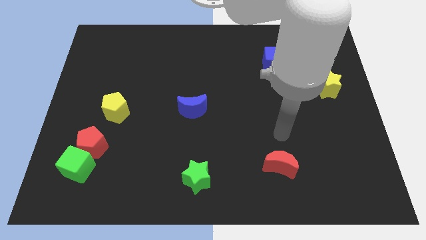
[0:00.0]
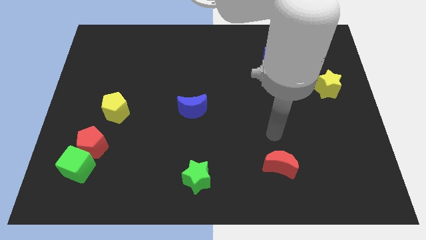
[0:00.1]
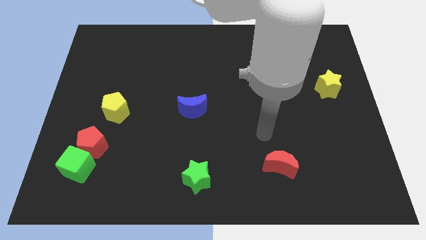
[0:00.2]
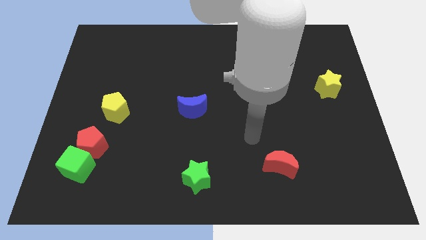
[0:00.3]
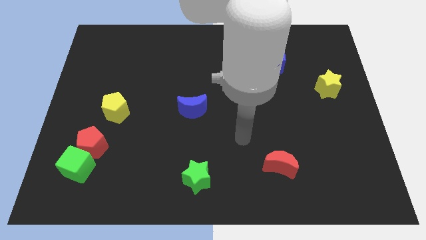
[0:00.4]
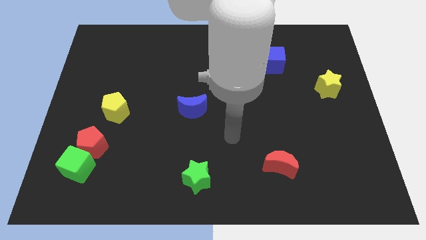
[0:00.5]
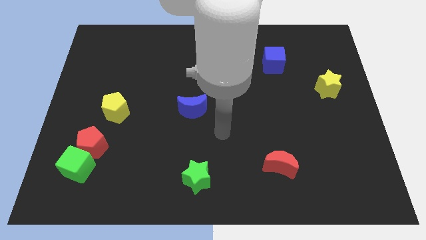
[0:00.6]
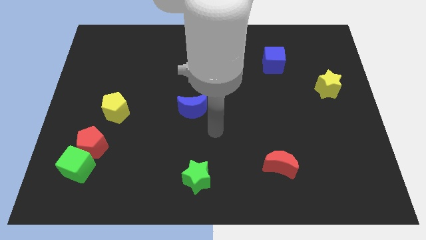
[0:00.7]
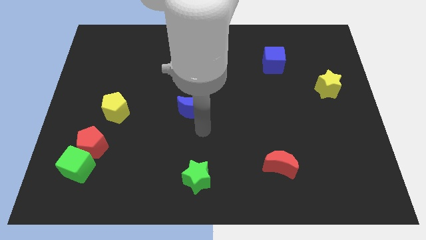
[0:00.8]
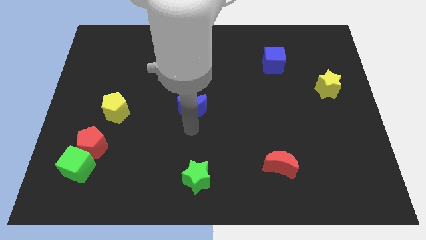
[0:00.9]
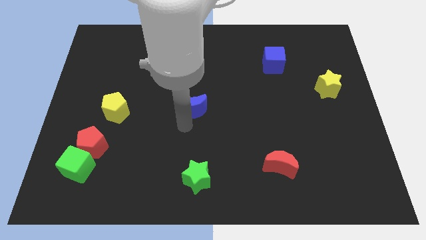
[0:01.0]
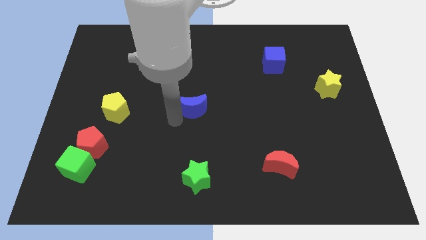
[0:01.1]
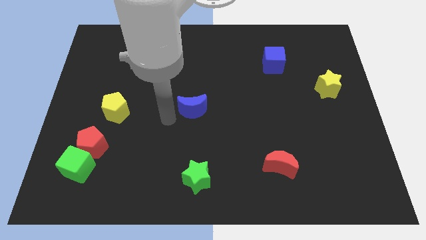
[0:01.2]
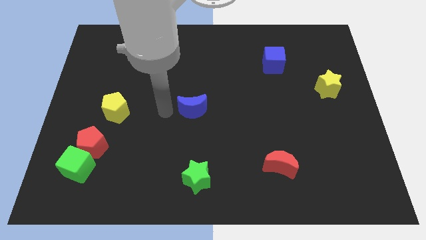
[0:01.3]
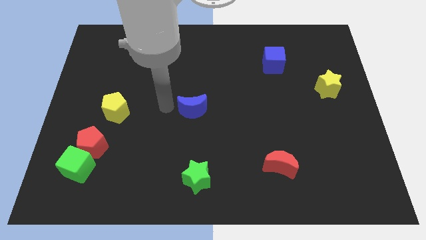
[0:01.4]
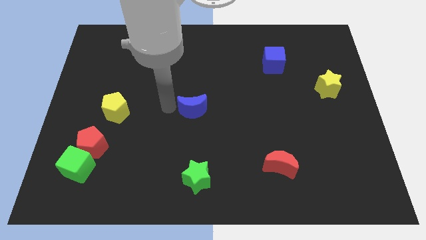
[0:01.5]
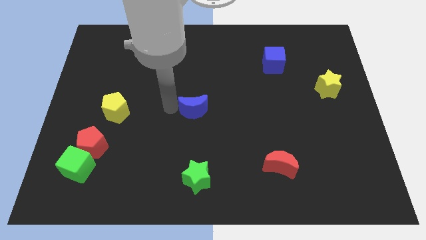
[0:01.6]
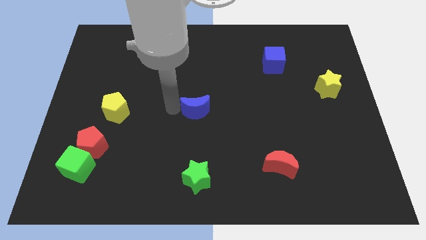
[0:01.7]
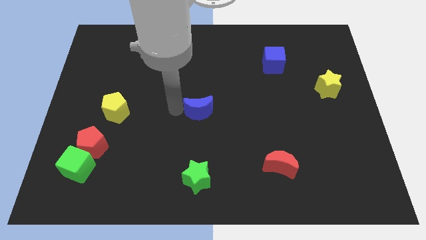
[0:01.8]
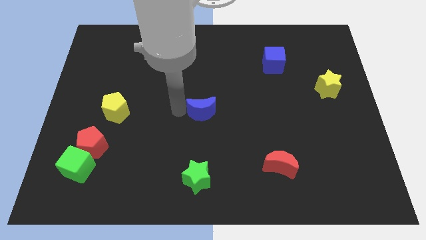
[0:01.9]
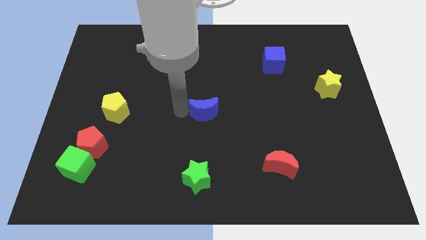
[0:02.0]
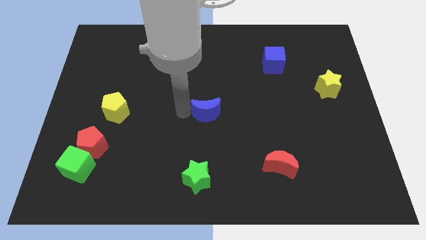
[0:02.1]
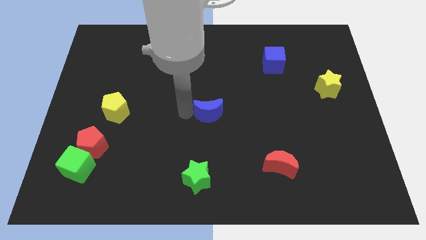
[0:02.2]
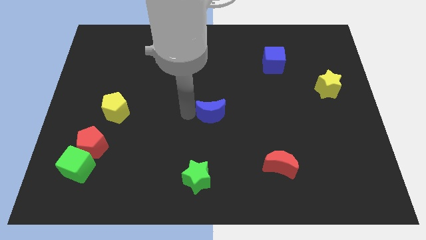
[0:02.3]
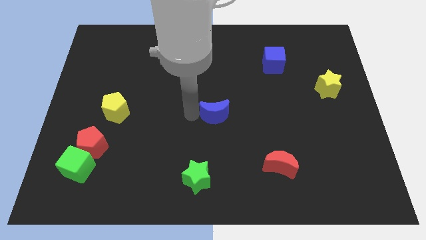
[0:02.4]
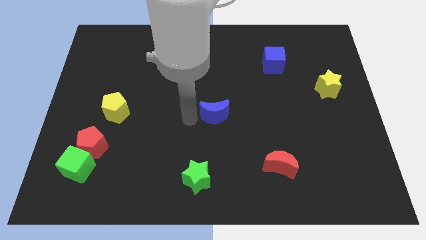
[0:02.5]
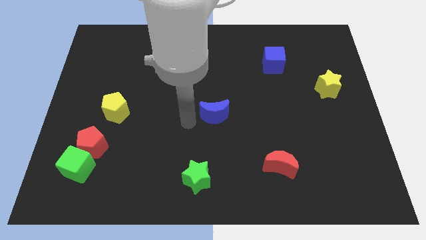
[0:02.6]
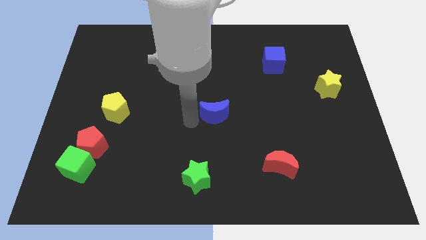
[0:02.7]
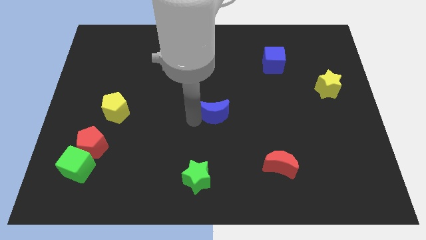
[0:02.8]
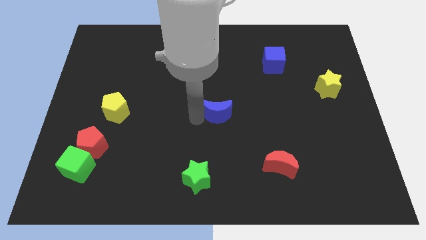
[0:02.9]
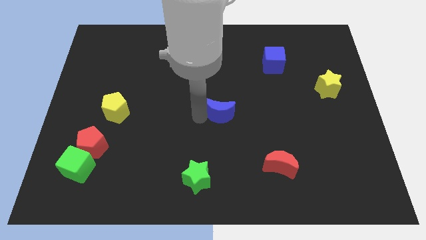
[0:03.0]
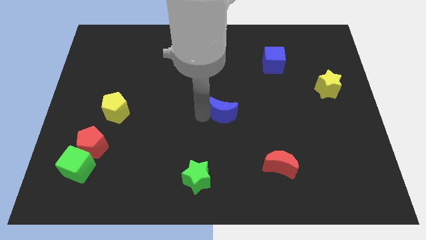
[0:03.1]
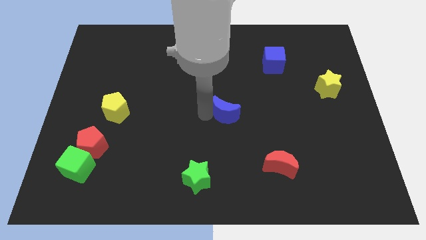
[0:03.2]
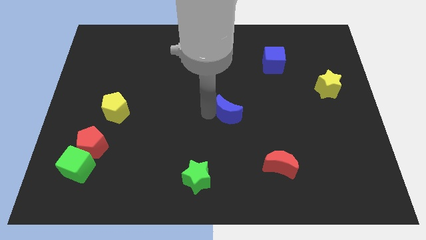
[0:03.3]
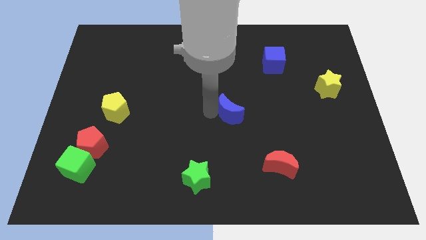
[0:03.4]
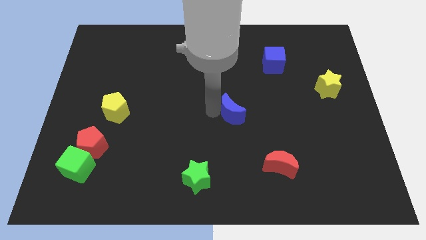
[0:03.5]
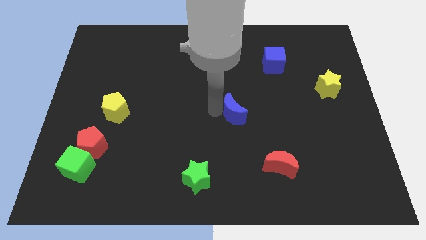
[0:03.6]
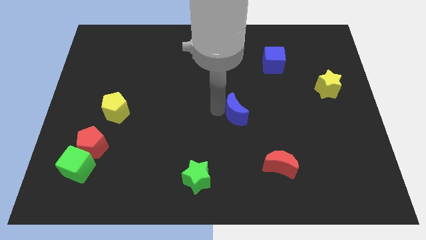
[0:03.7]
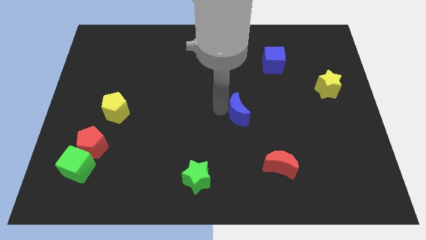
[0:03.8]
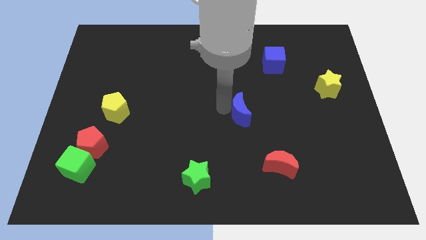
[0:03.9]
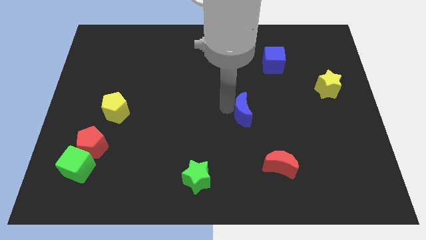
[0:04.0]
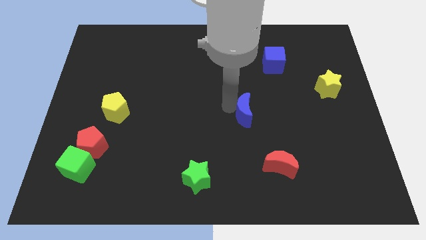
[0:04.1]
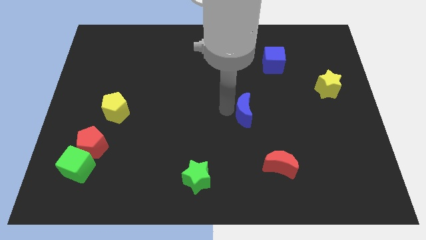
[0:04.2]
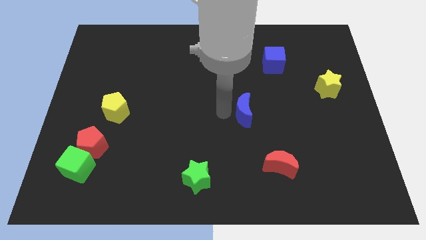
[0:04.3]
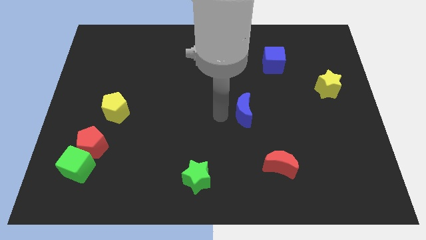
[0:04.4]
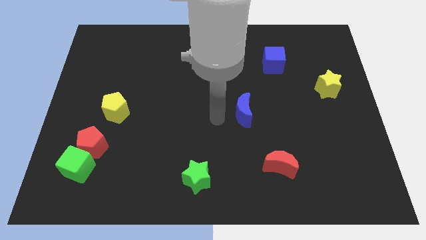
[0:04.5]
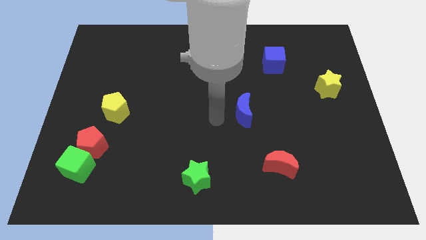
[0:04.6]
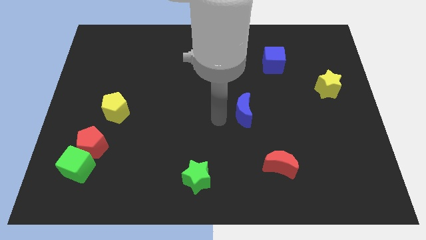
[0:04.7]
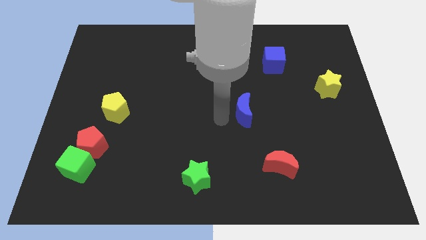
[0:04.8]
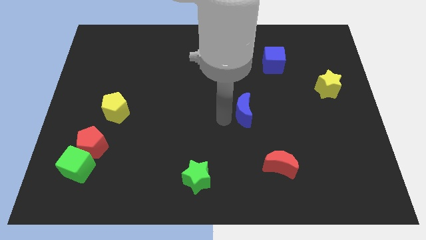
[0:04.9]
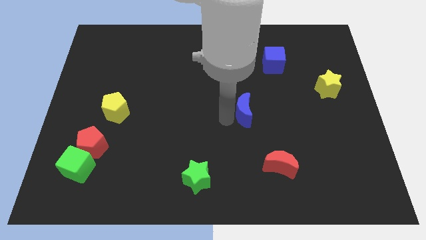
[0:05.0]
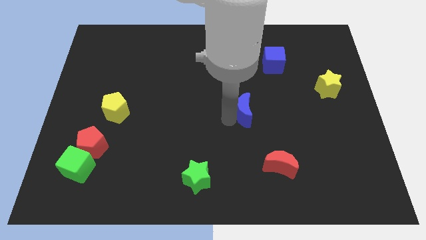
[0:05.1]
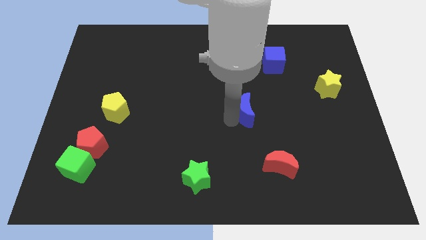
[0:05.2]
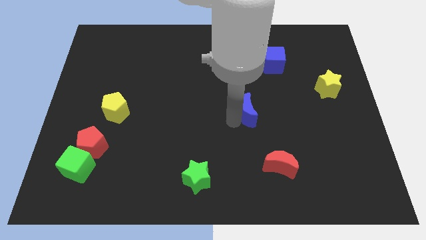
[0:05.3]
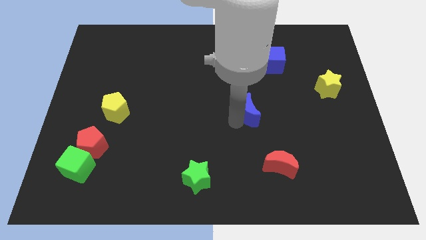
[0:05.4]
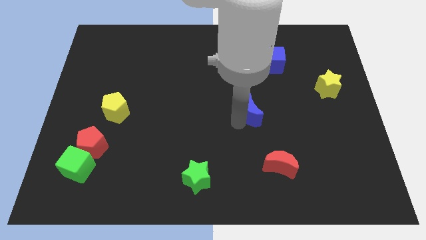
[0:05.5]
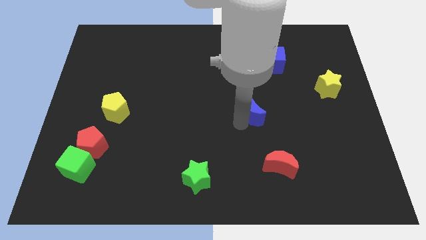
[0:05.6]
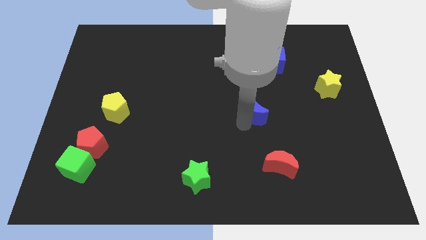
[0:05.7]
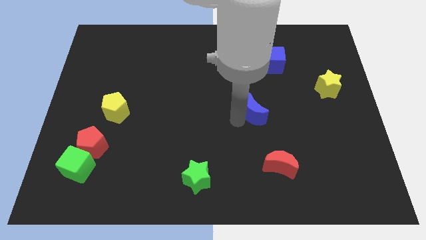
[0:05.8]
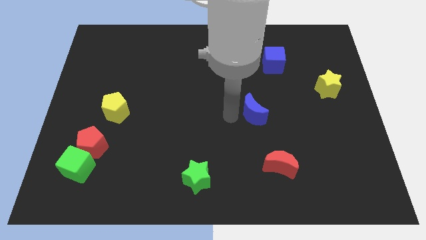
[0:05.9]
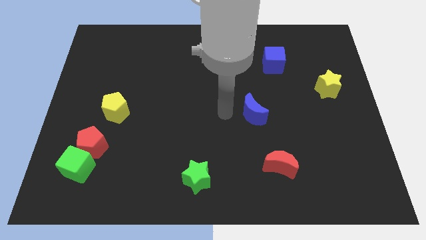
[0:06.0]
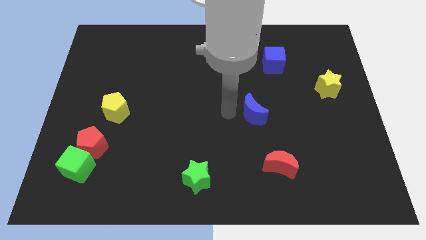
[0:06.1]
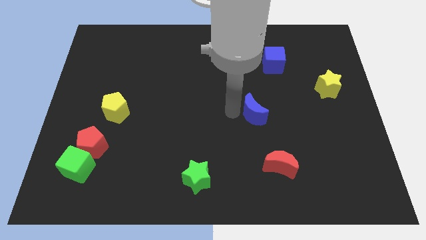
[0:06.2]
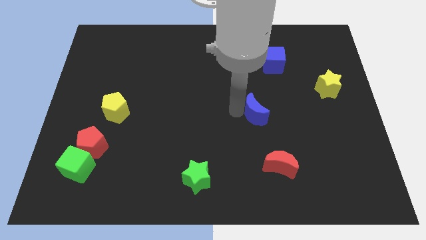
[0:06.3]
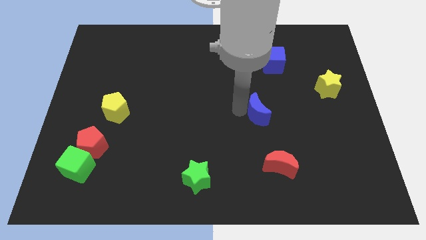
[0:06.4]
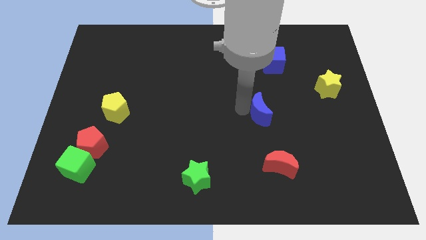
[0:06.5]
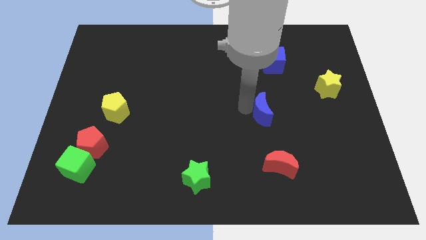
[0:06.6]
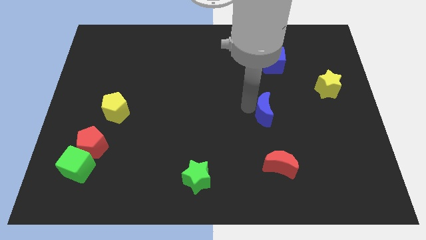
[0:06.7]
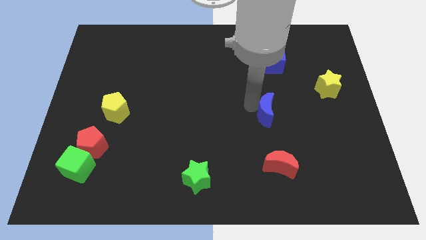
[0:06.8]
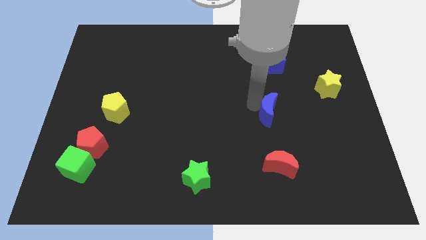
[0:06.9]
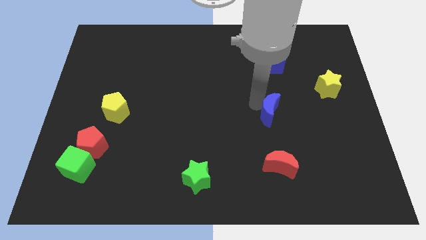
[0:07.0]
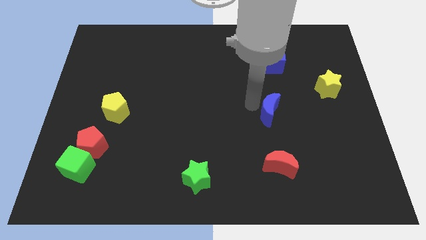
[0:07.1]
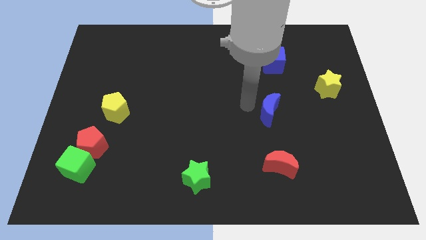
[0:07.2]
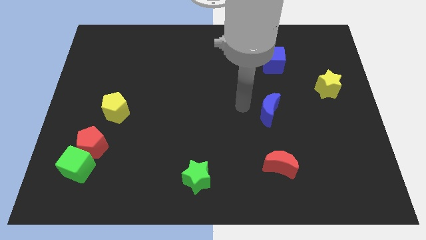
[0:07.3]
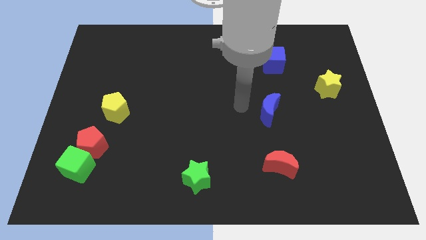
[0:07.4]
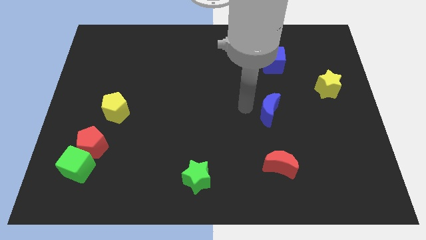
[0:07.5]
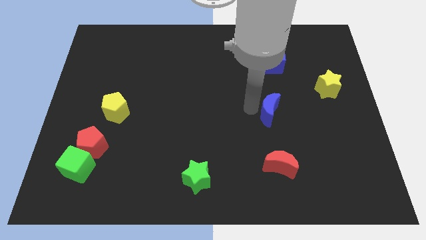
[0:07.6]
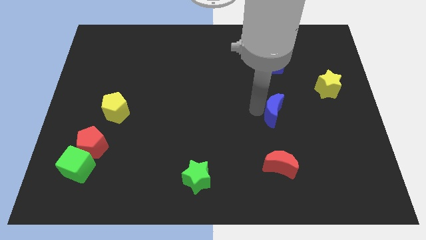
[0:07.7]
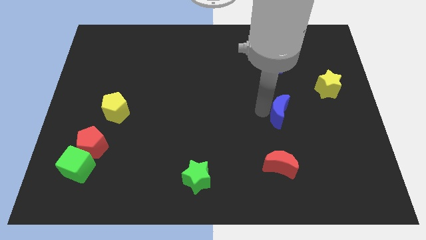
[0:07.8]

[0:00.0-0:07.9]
slide the blue moon to the right

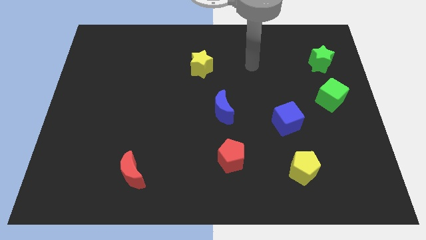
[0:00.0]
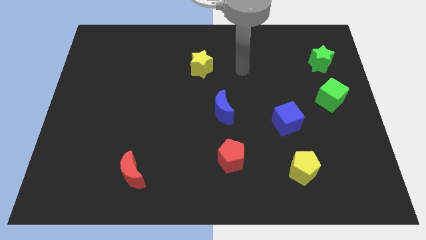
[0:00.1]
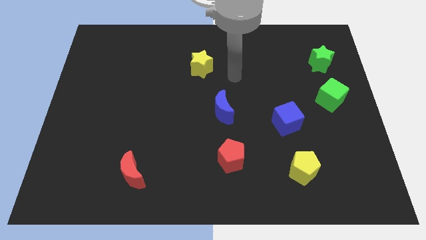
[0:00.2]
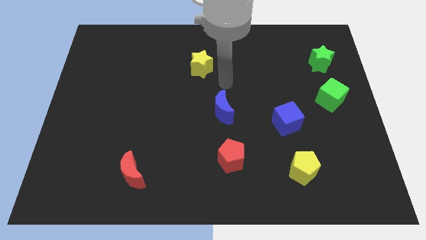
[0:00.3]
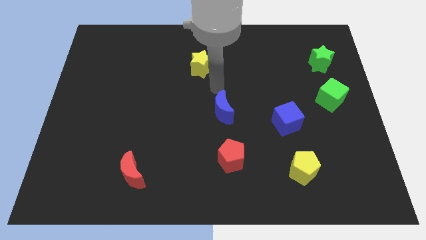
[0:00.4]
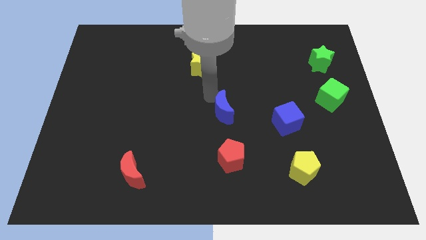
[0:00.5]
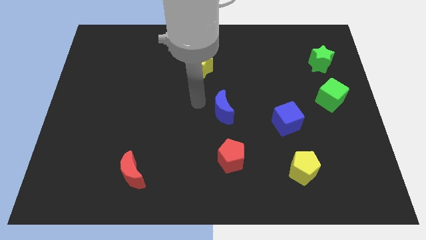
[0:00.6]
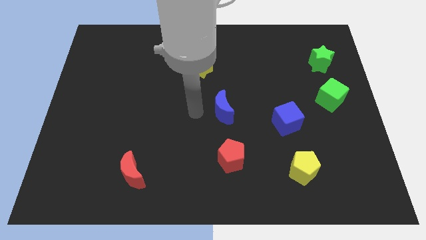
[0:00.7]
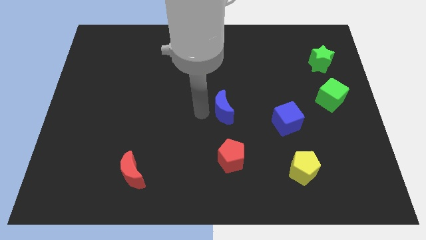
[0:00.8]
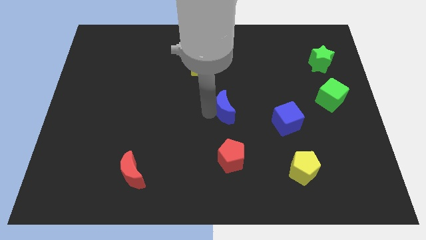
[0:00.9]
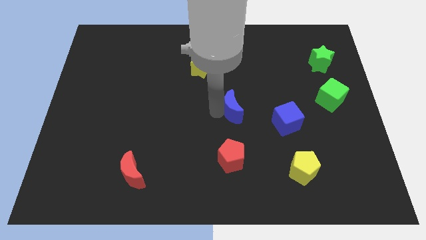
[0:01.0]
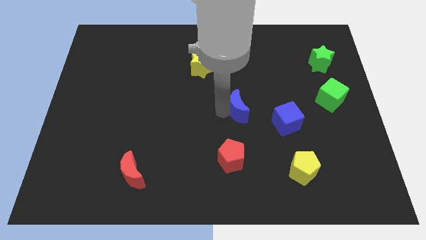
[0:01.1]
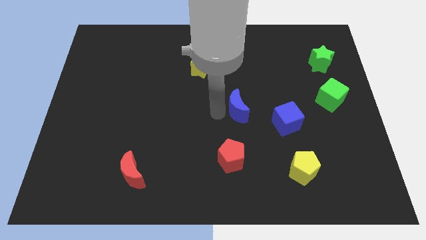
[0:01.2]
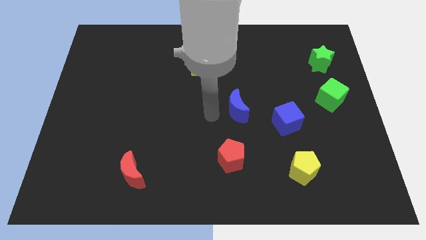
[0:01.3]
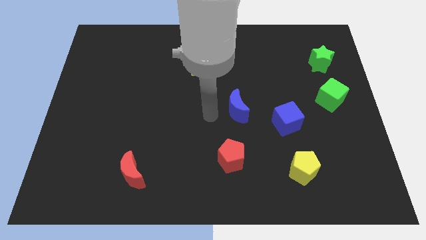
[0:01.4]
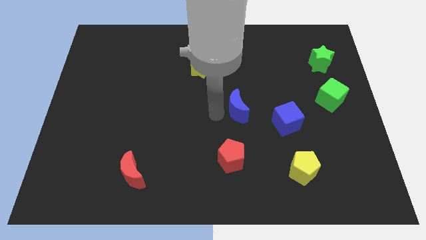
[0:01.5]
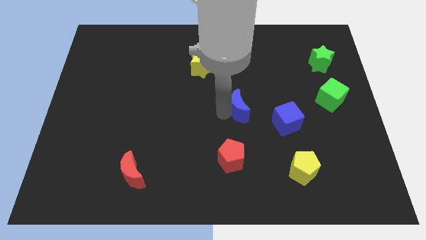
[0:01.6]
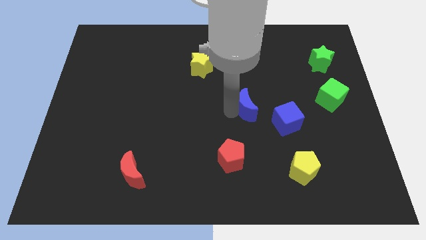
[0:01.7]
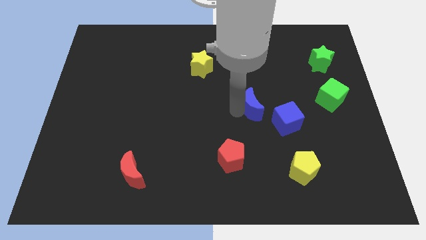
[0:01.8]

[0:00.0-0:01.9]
slightly push the blue moon right
